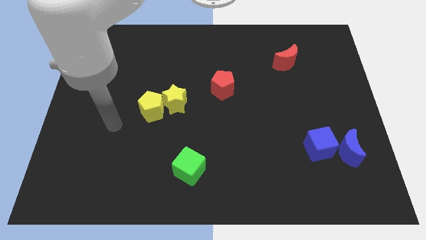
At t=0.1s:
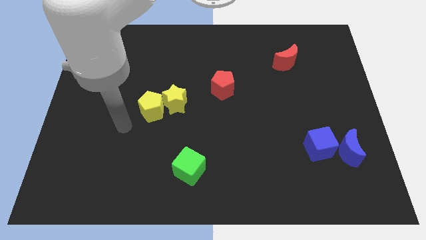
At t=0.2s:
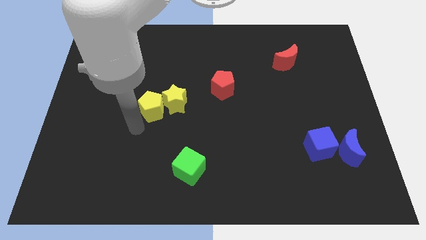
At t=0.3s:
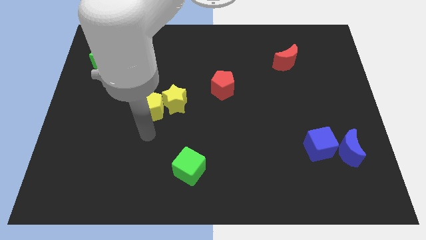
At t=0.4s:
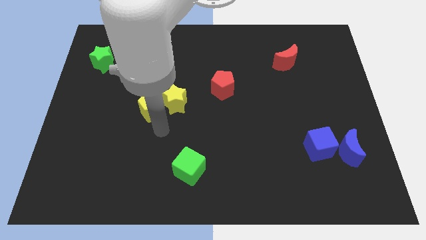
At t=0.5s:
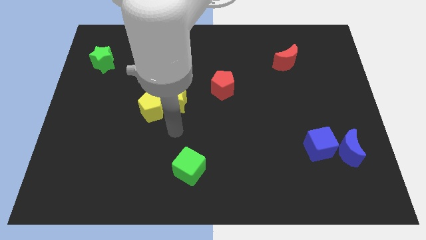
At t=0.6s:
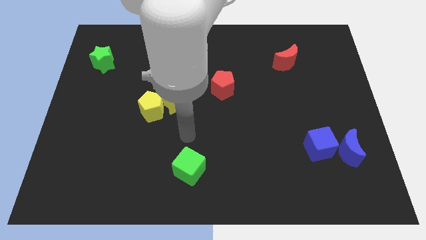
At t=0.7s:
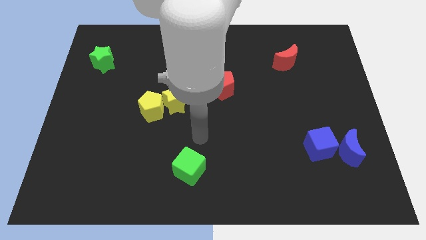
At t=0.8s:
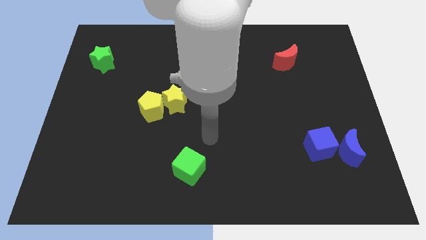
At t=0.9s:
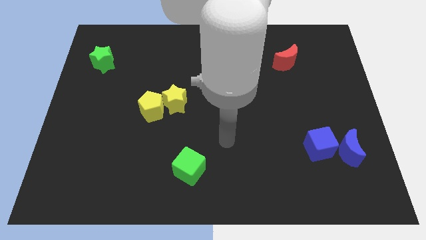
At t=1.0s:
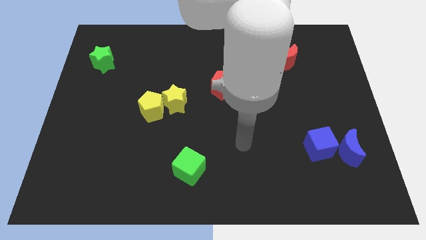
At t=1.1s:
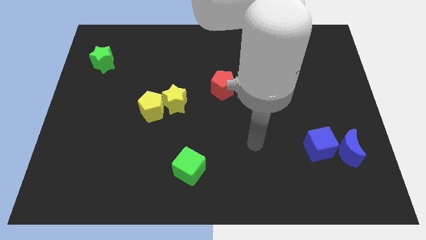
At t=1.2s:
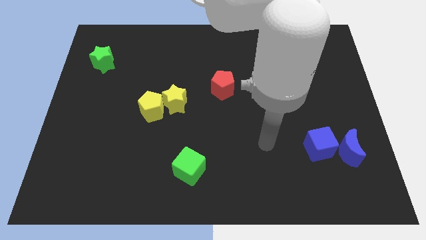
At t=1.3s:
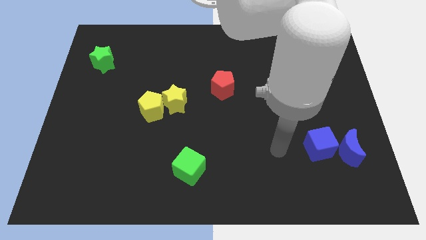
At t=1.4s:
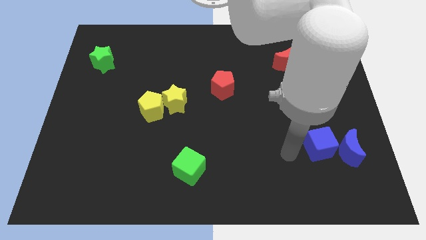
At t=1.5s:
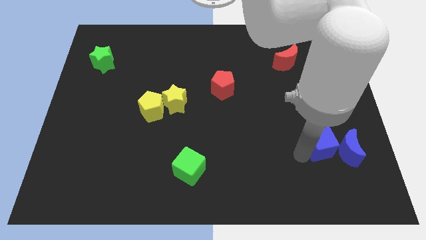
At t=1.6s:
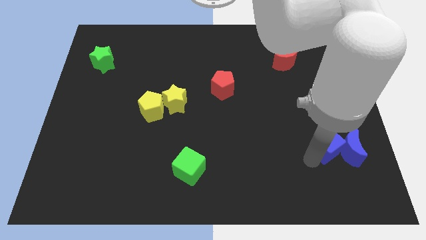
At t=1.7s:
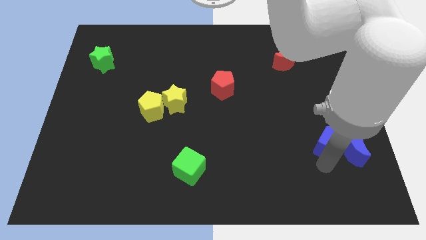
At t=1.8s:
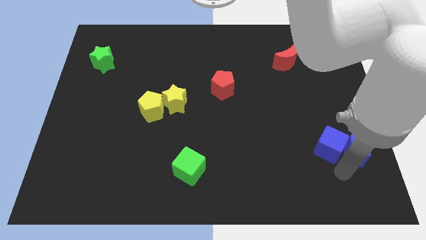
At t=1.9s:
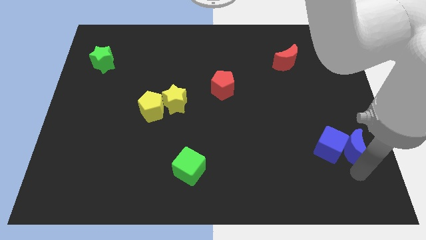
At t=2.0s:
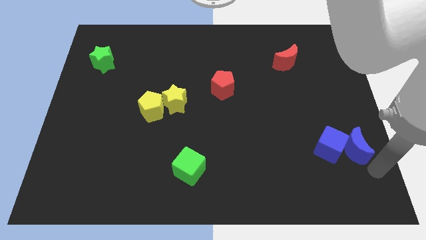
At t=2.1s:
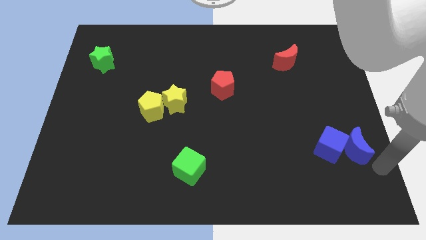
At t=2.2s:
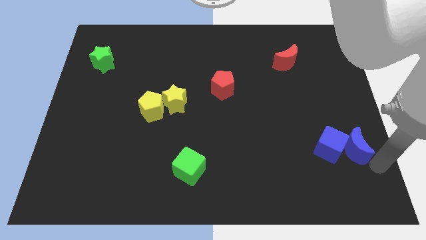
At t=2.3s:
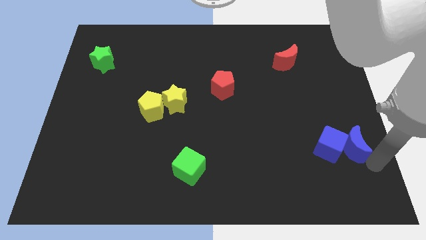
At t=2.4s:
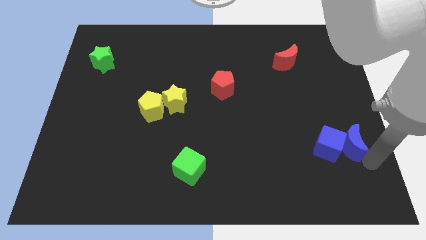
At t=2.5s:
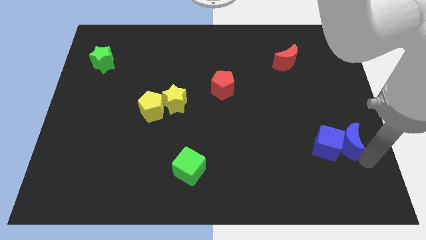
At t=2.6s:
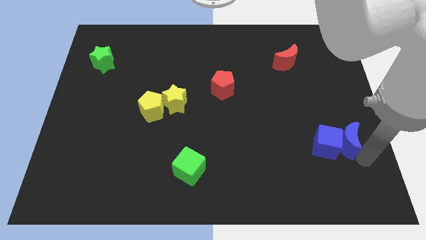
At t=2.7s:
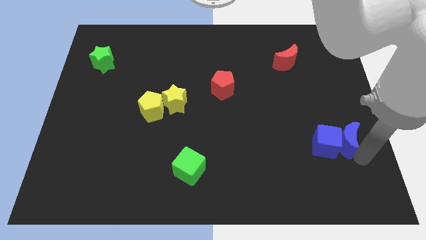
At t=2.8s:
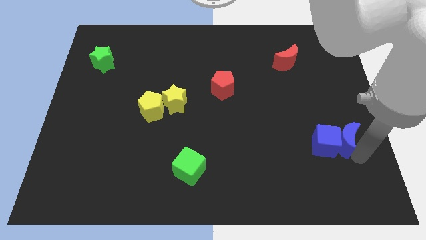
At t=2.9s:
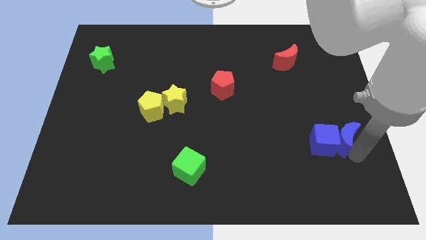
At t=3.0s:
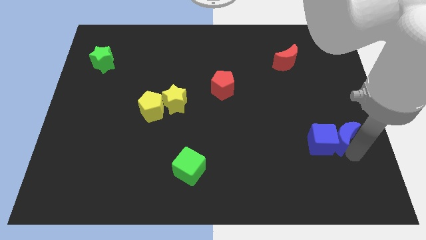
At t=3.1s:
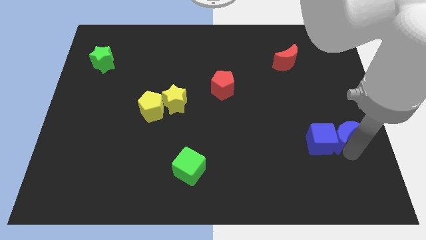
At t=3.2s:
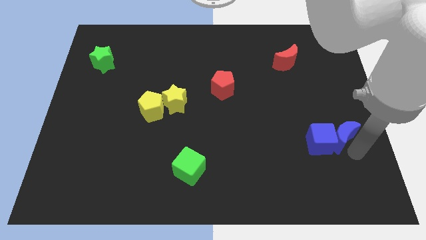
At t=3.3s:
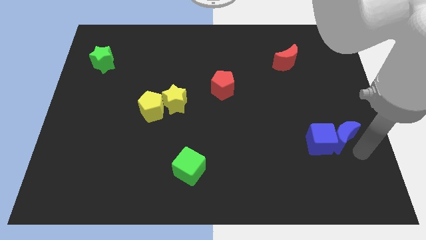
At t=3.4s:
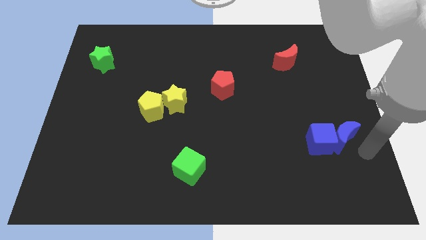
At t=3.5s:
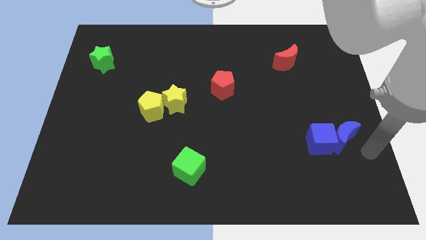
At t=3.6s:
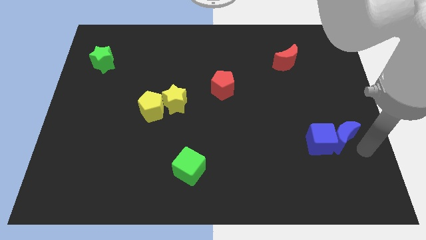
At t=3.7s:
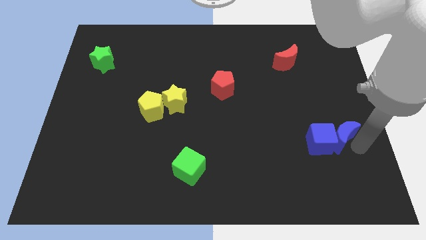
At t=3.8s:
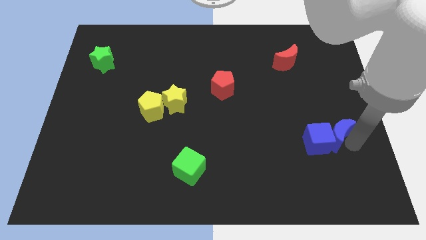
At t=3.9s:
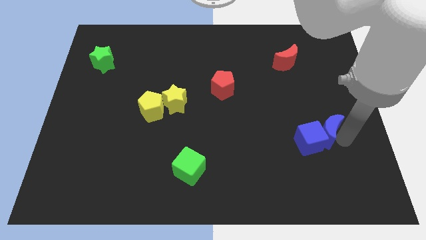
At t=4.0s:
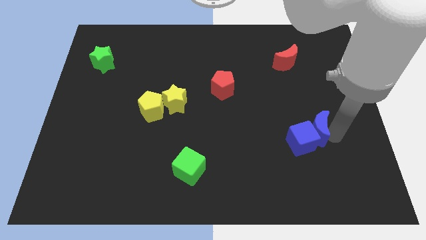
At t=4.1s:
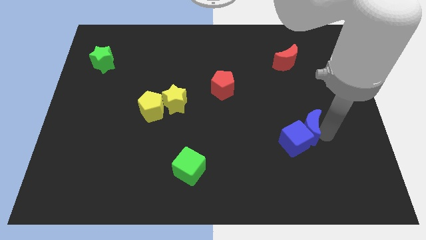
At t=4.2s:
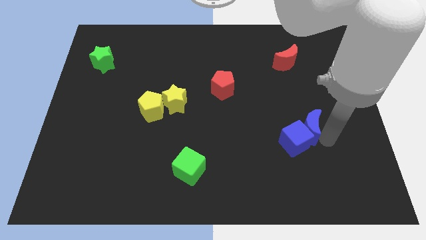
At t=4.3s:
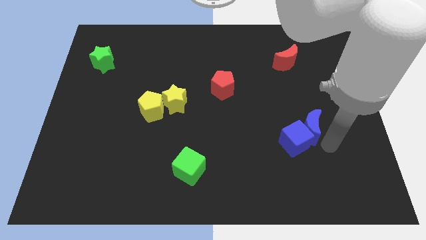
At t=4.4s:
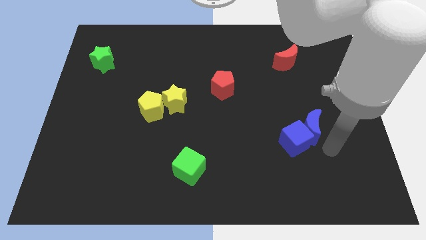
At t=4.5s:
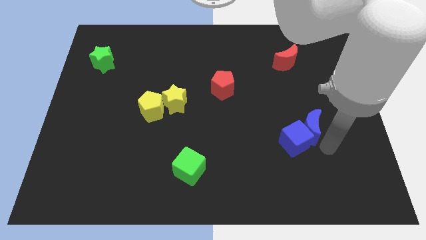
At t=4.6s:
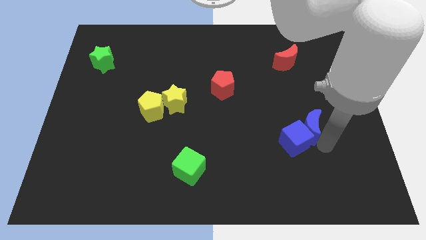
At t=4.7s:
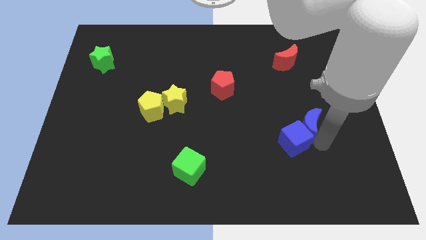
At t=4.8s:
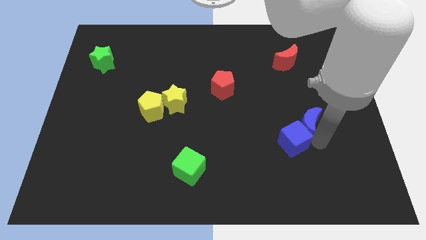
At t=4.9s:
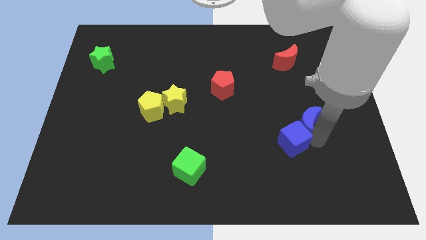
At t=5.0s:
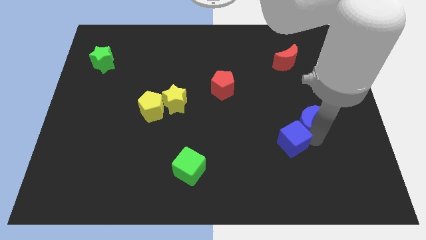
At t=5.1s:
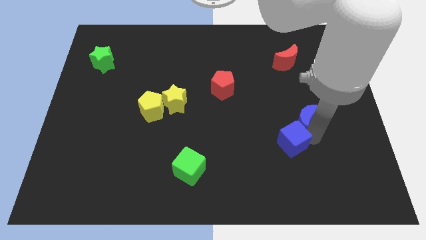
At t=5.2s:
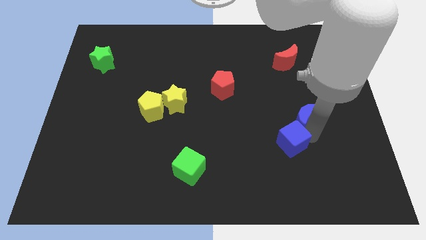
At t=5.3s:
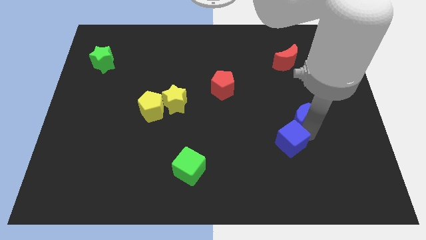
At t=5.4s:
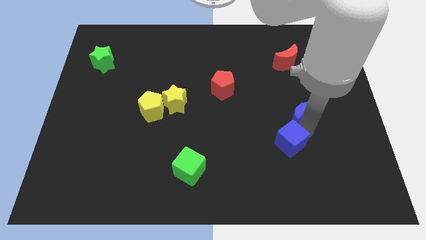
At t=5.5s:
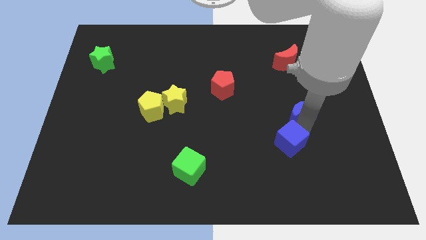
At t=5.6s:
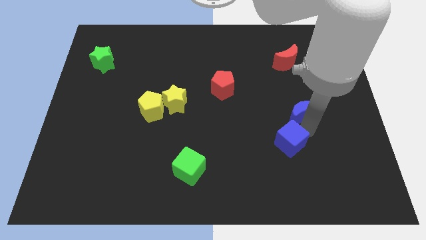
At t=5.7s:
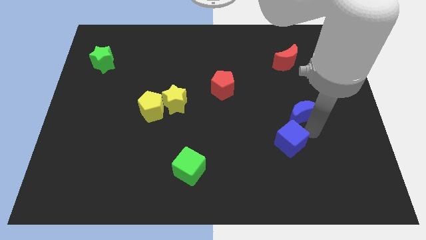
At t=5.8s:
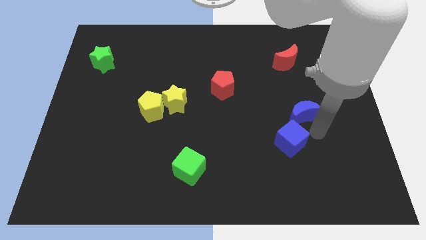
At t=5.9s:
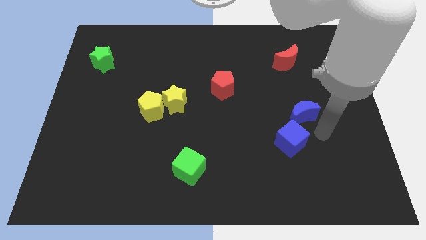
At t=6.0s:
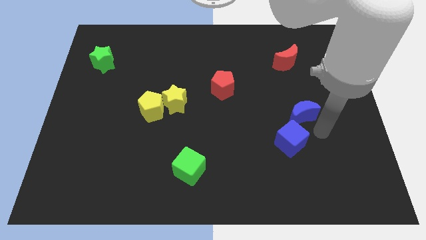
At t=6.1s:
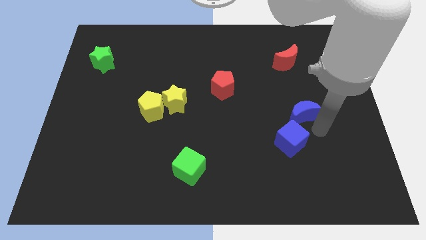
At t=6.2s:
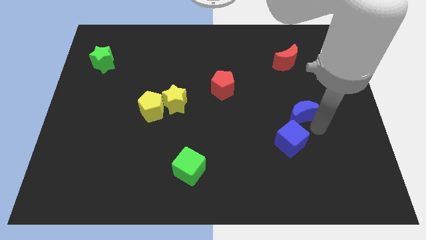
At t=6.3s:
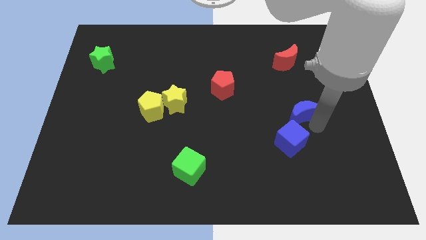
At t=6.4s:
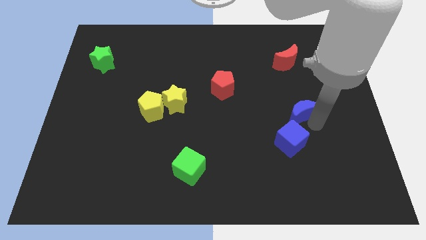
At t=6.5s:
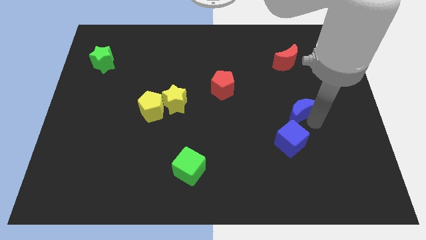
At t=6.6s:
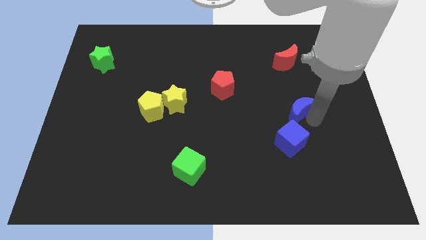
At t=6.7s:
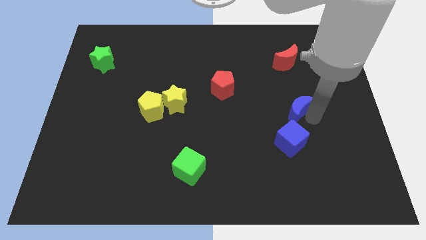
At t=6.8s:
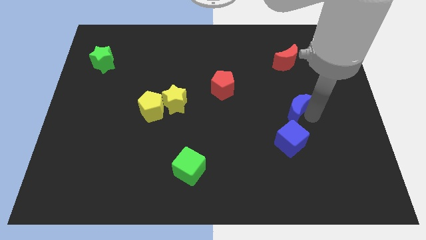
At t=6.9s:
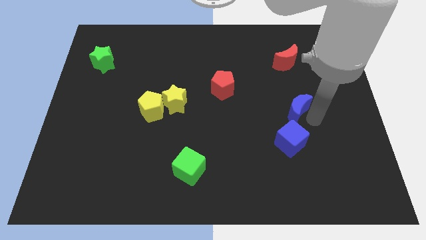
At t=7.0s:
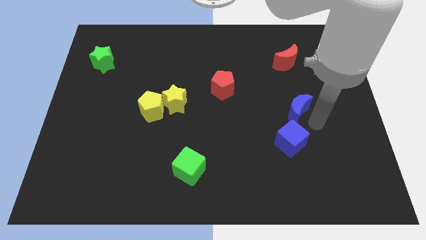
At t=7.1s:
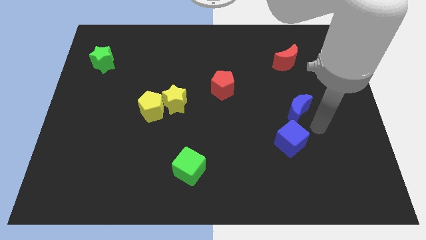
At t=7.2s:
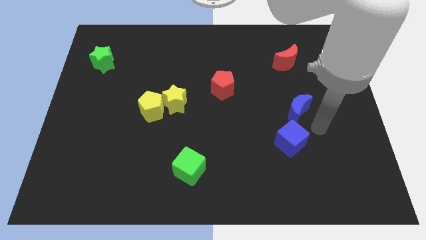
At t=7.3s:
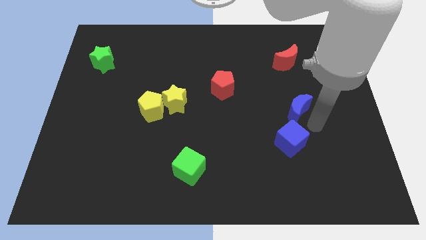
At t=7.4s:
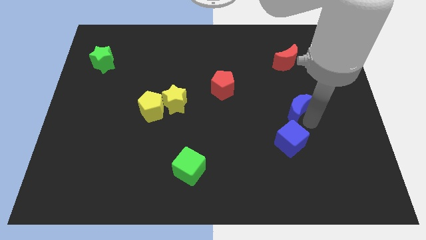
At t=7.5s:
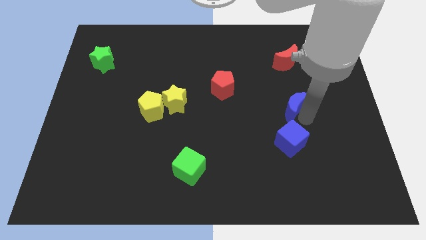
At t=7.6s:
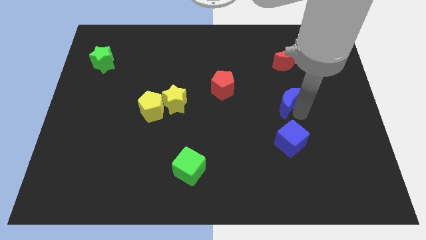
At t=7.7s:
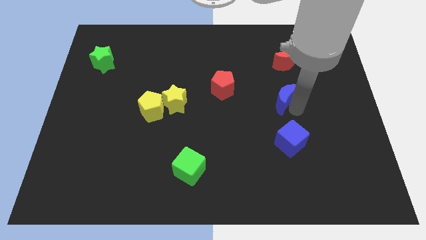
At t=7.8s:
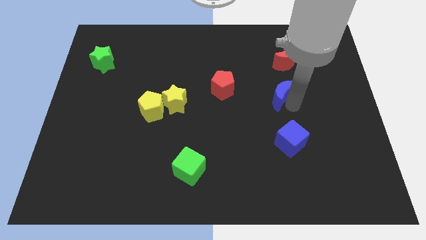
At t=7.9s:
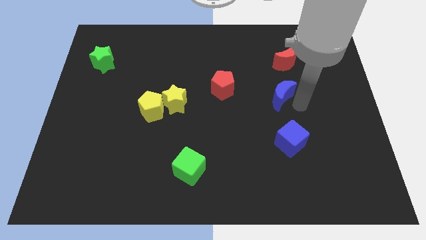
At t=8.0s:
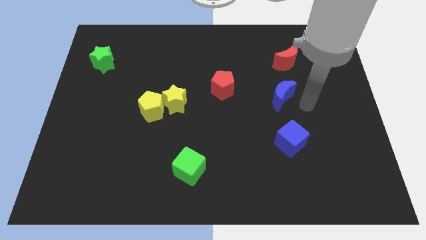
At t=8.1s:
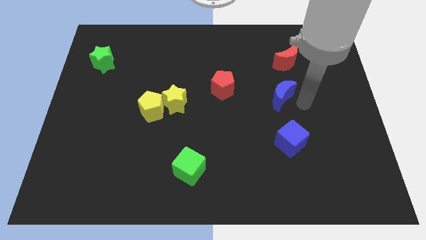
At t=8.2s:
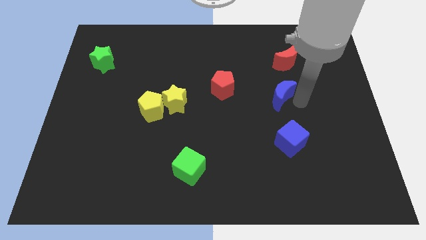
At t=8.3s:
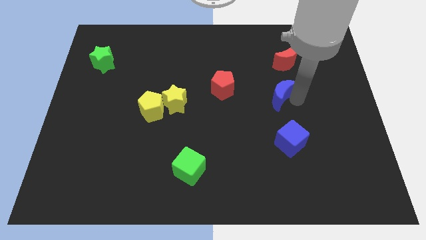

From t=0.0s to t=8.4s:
push the blue moon upwards and left
